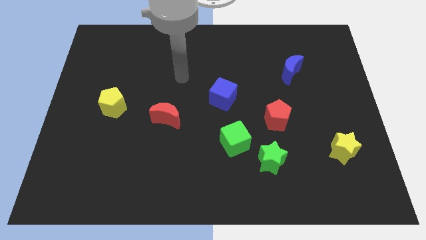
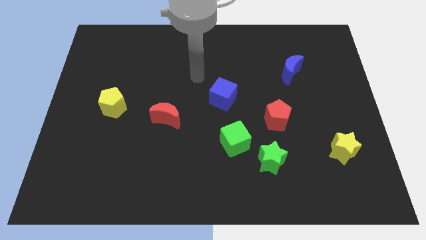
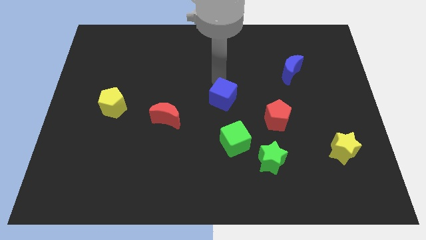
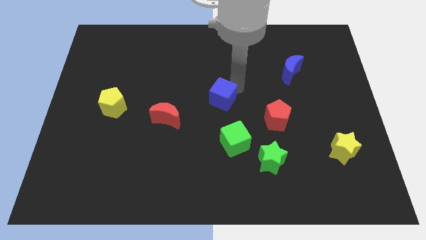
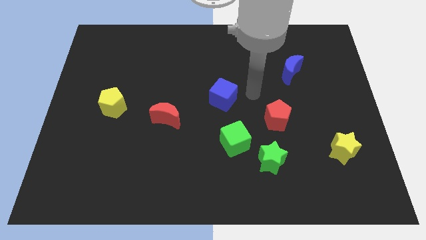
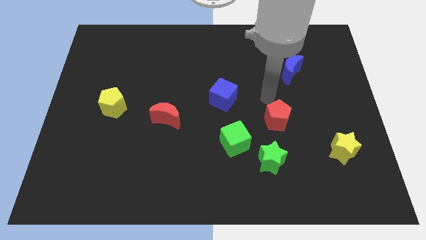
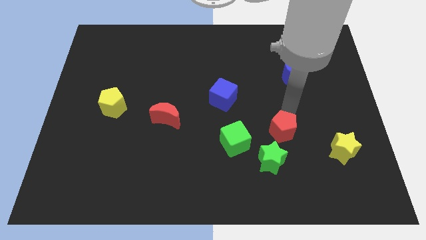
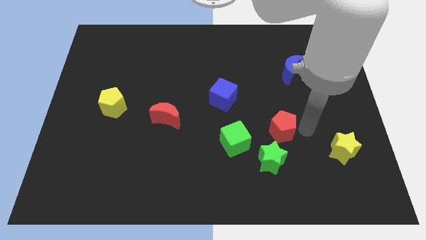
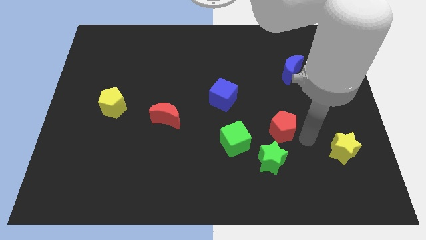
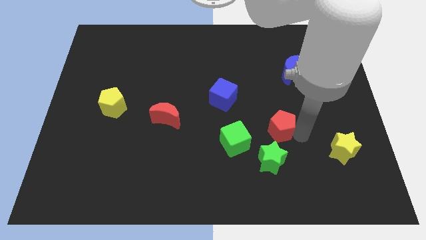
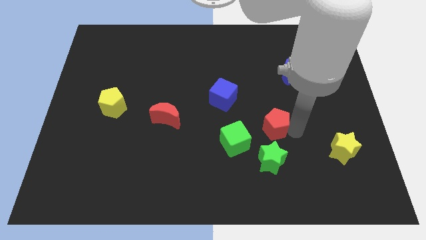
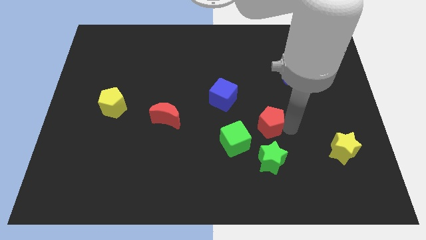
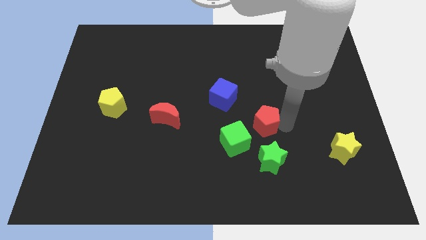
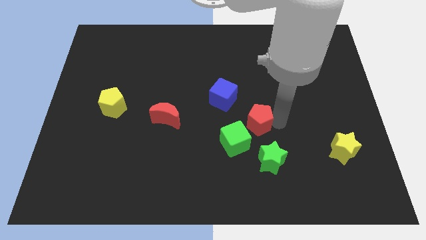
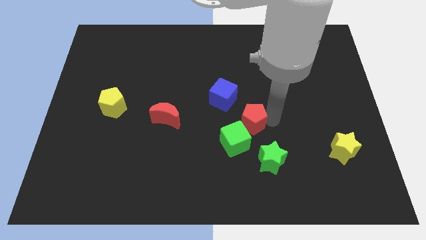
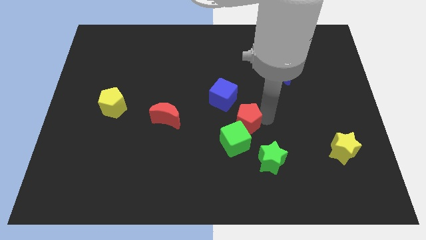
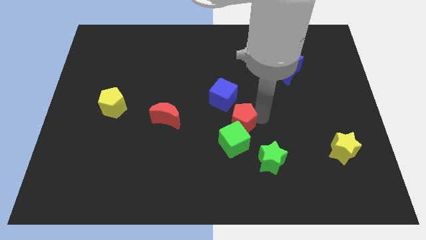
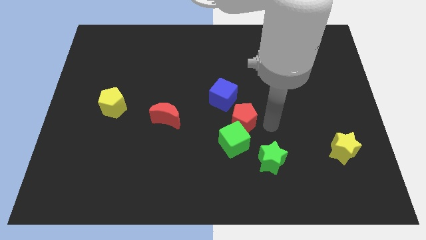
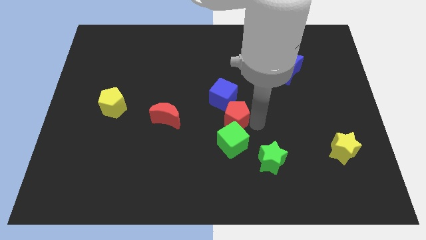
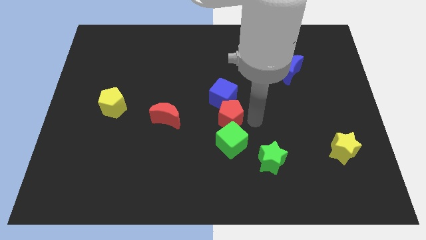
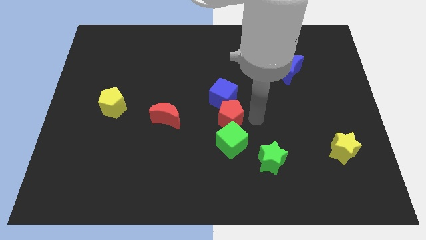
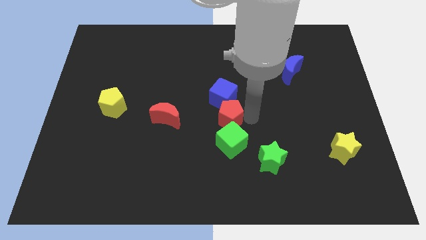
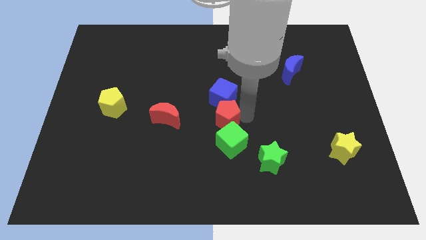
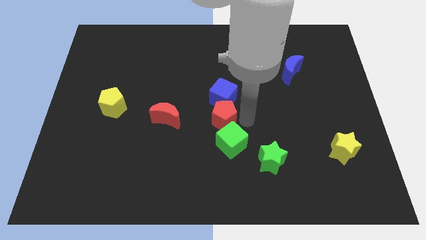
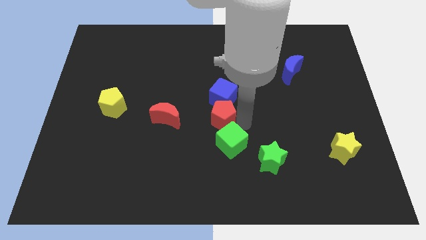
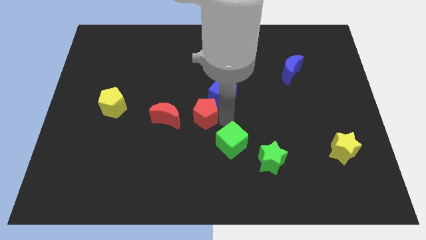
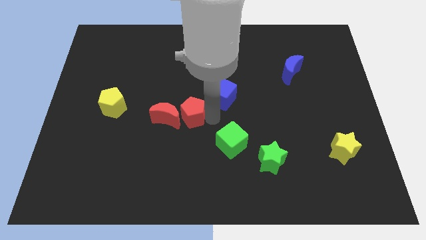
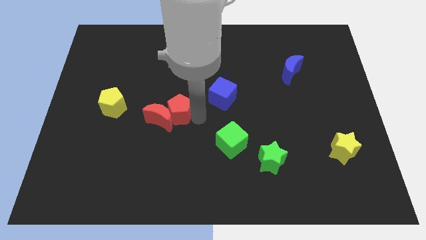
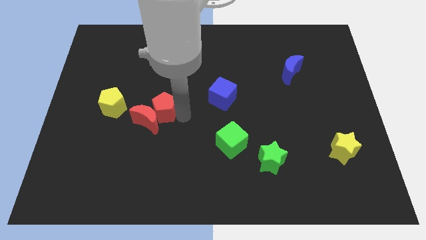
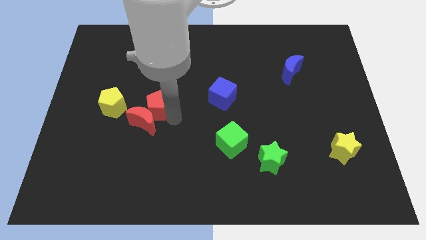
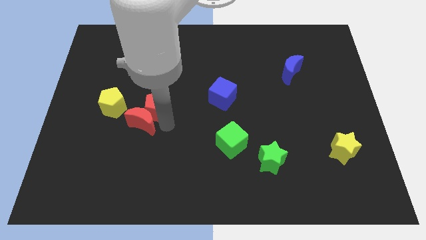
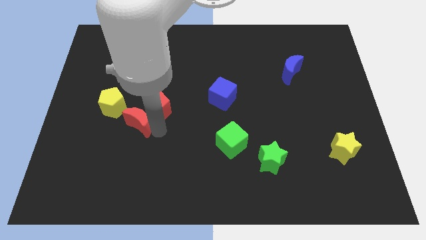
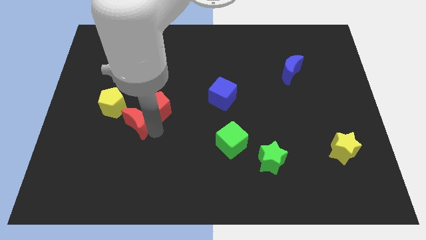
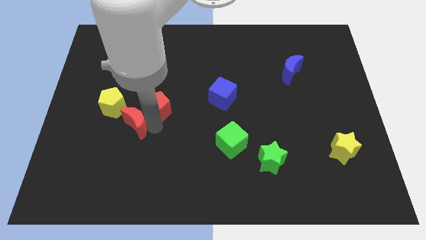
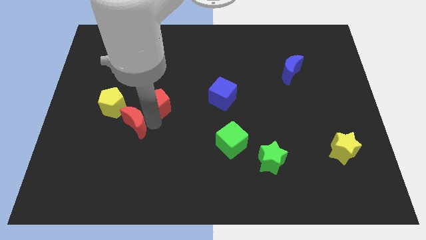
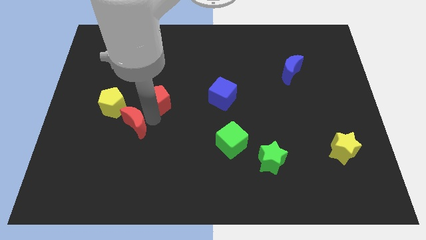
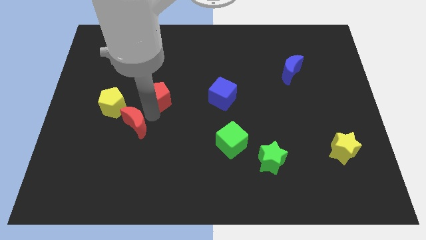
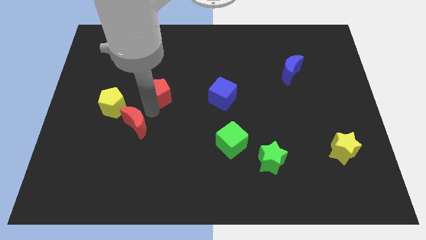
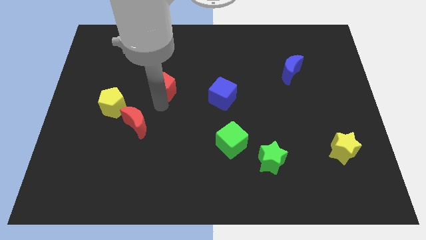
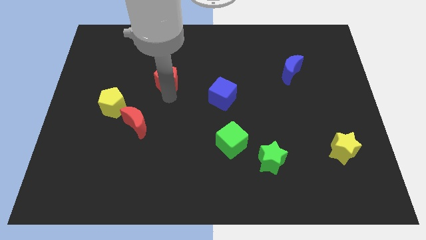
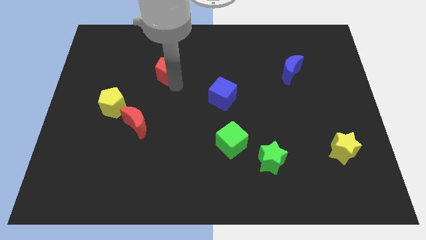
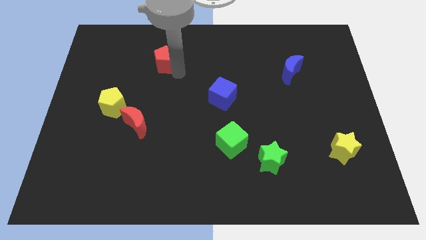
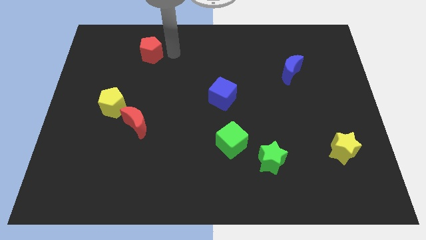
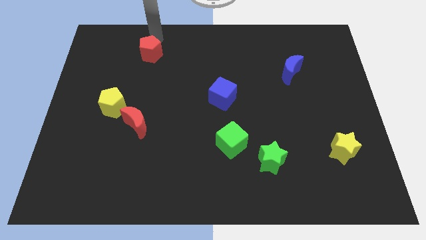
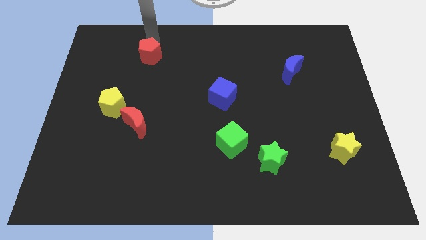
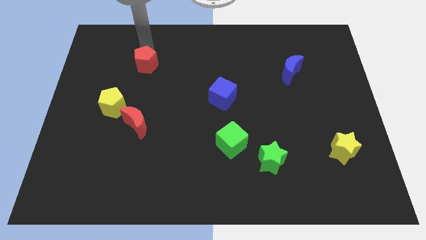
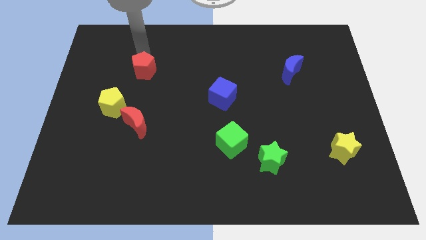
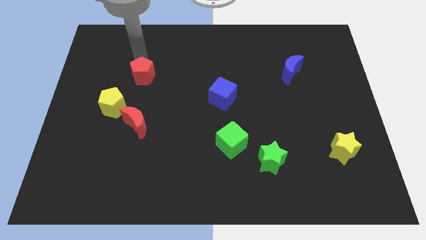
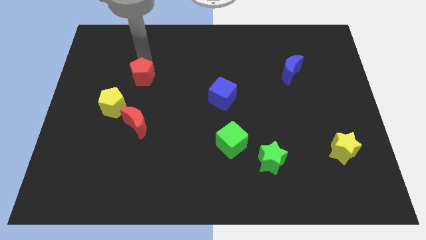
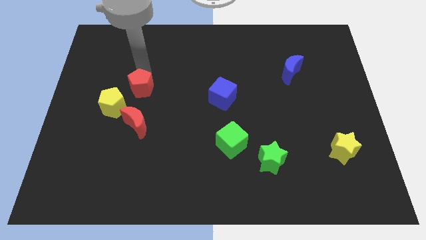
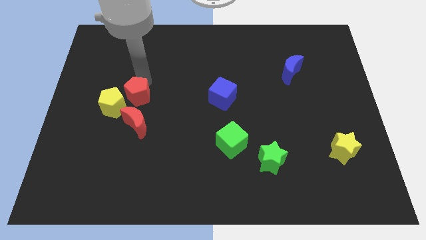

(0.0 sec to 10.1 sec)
push the red pentagon towards the yellow pentagon

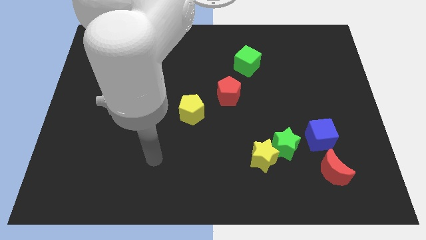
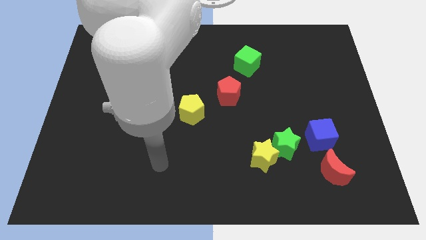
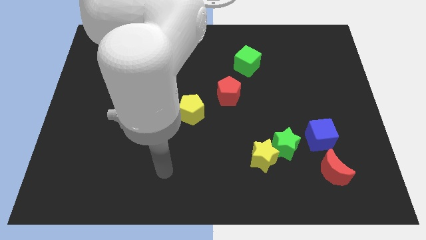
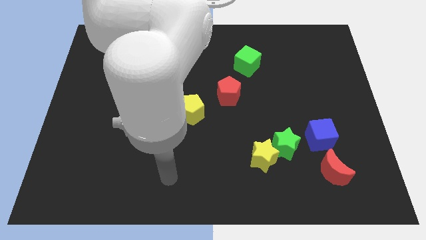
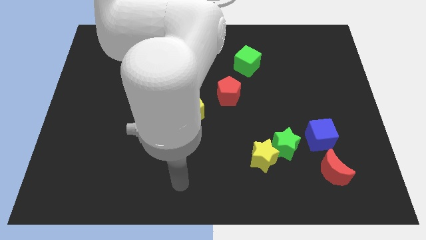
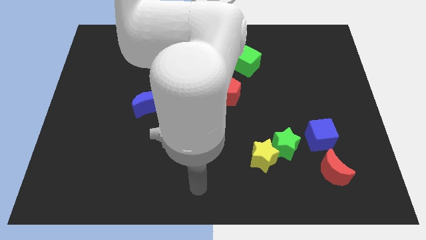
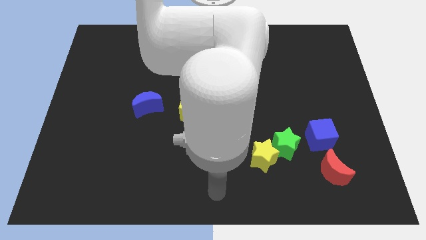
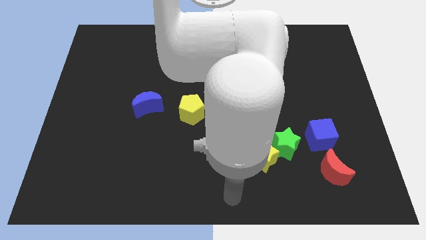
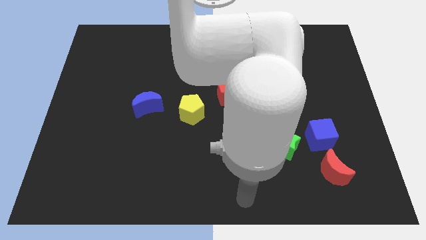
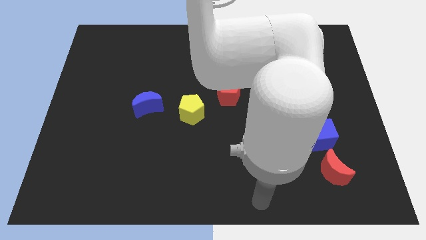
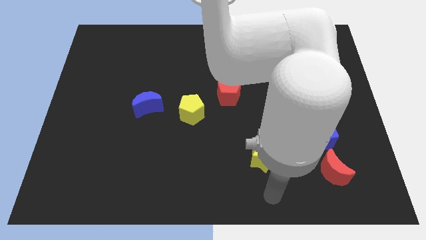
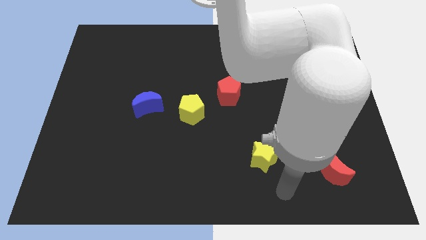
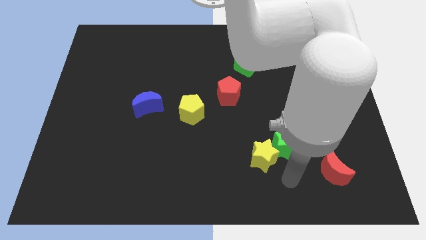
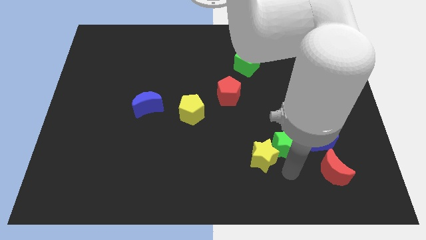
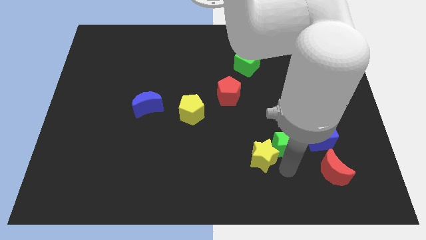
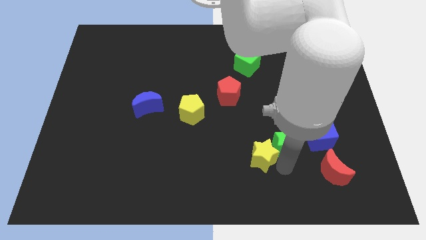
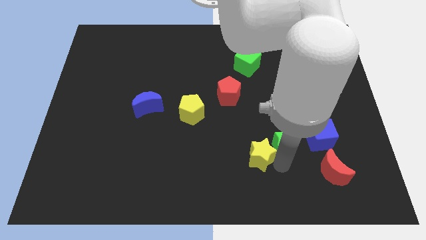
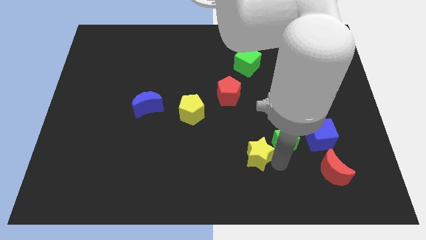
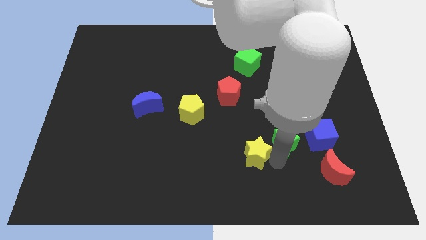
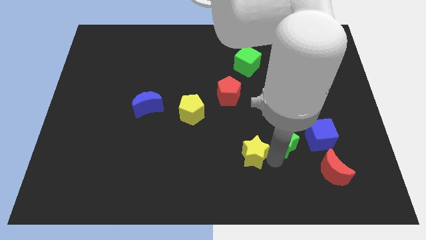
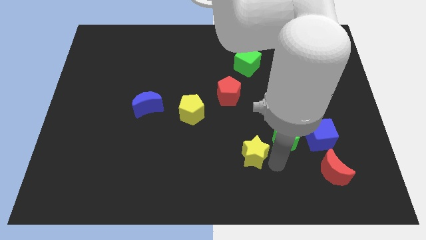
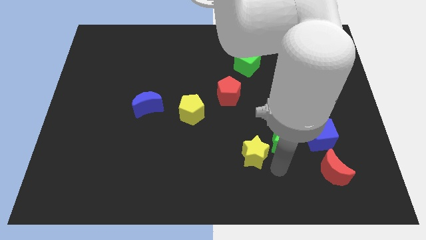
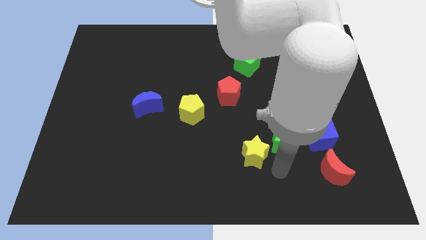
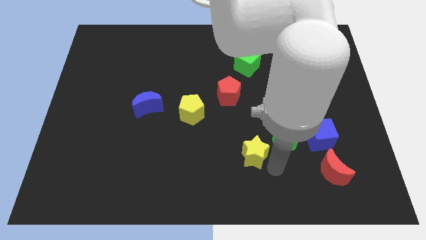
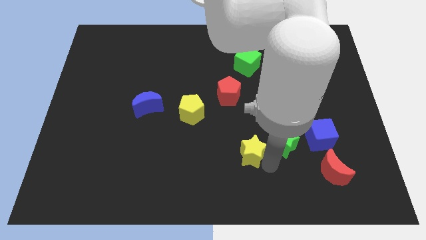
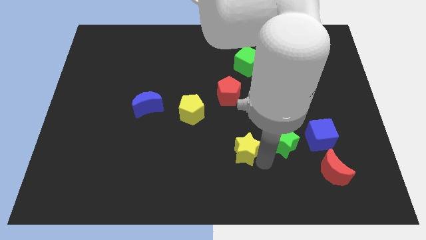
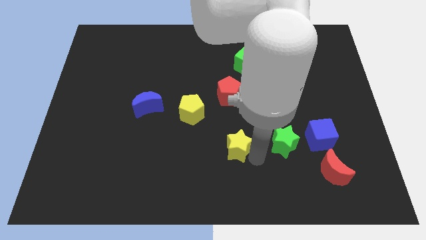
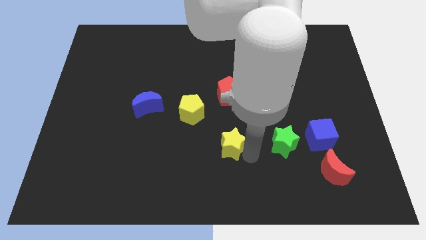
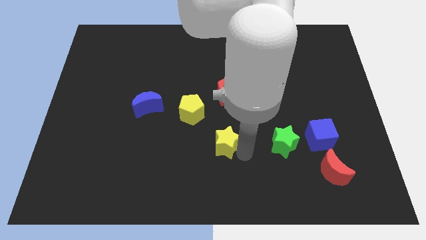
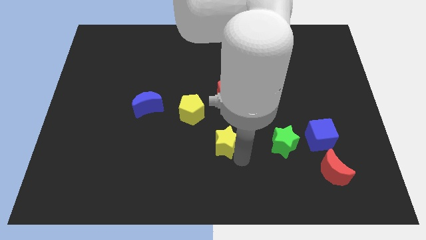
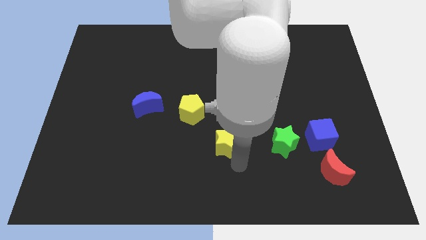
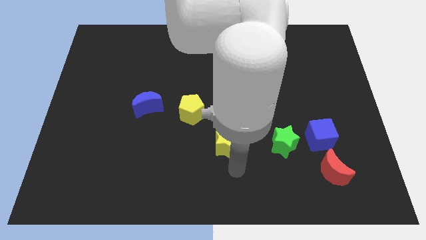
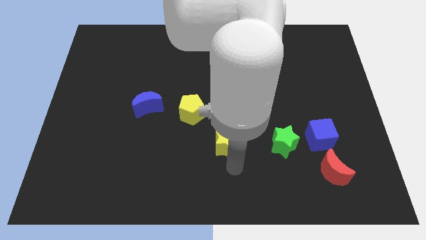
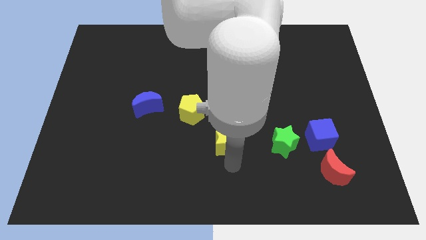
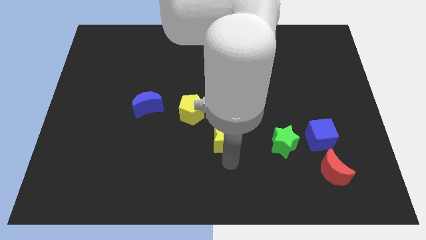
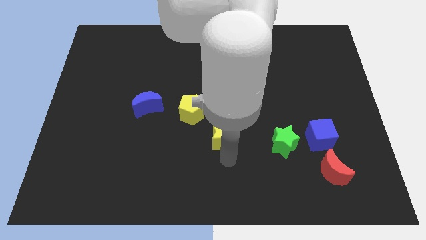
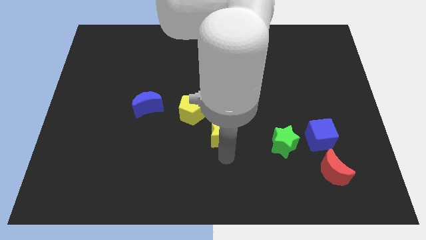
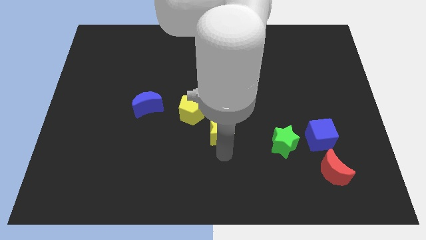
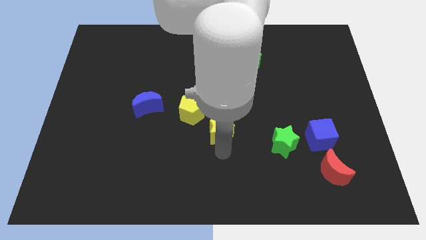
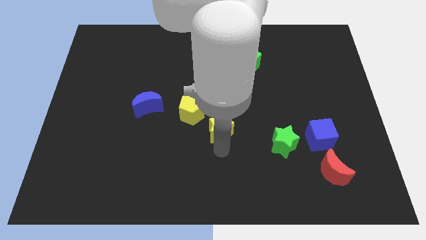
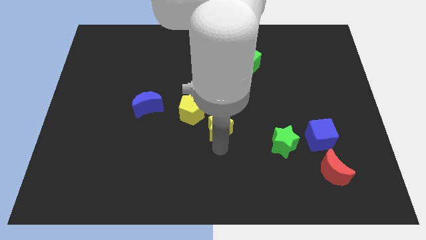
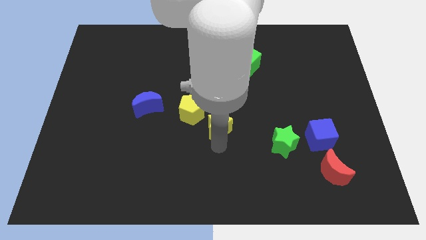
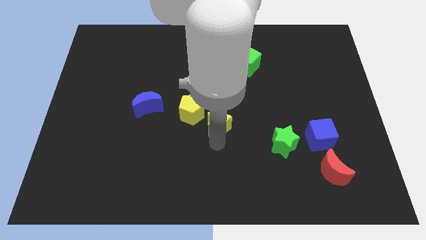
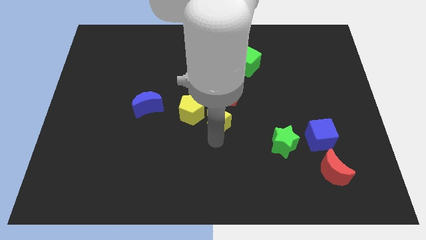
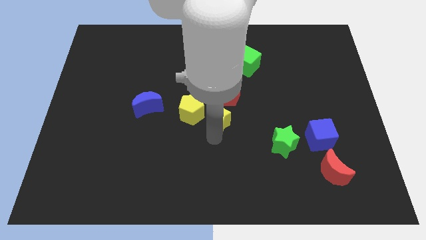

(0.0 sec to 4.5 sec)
move the yellow star towards the yellow pentagon
